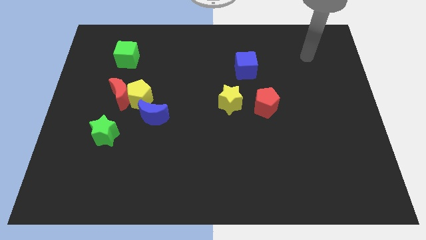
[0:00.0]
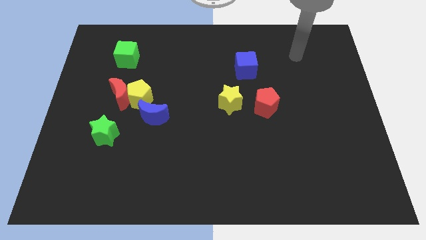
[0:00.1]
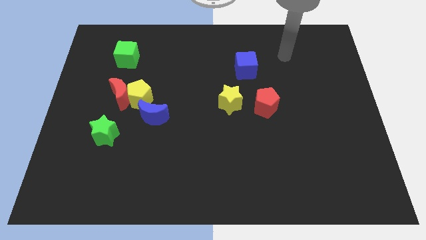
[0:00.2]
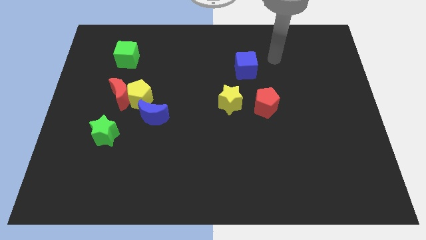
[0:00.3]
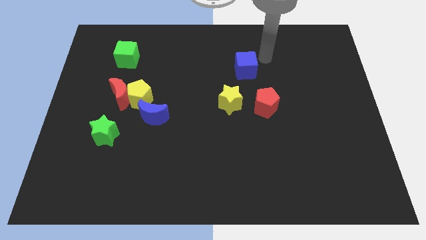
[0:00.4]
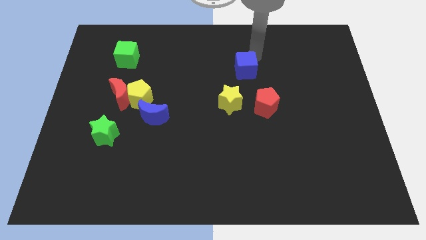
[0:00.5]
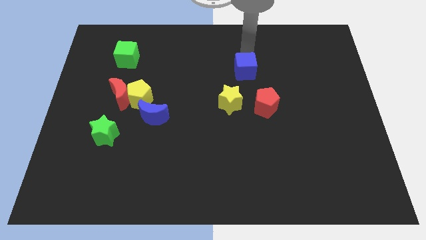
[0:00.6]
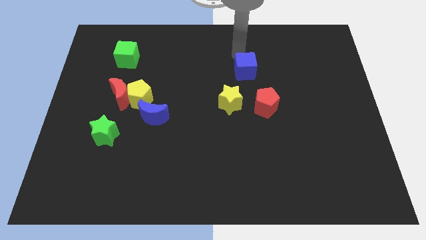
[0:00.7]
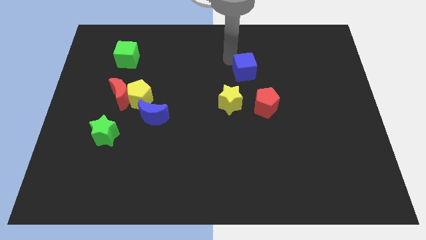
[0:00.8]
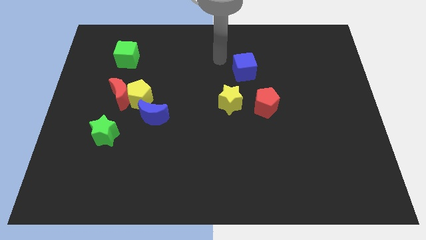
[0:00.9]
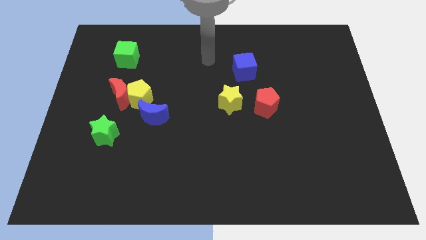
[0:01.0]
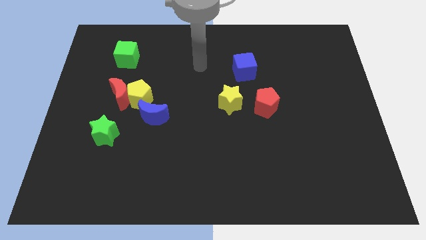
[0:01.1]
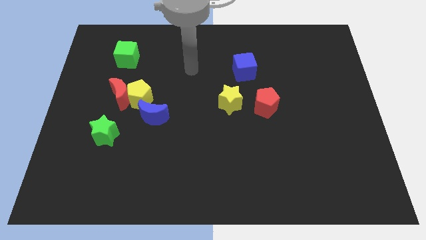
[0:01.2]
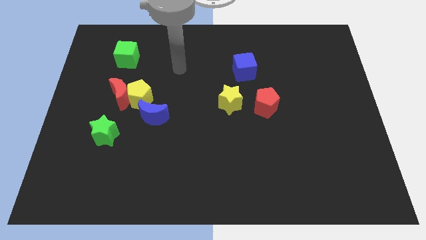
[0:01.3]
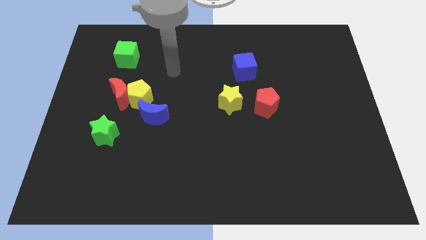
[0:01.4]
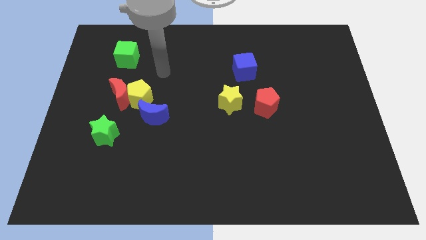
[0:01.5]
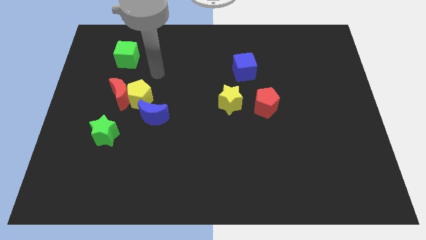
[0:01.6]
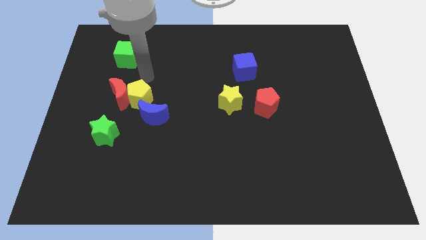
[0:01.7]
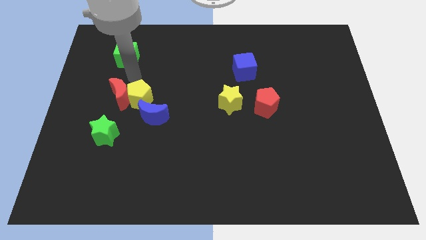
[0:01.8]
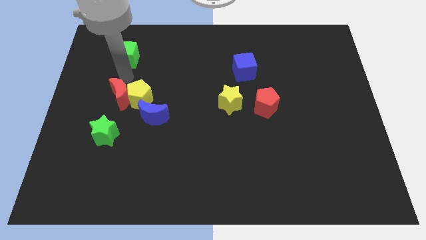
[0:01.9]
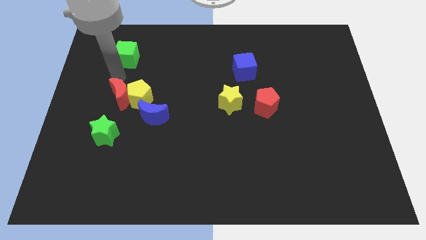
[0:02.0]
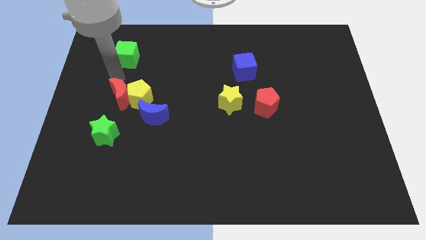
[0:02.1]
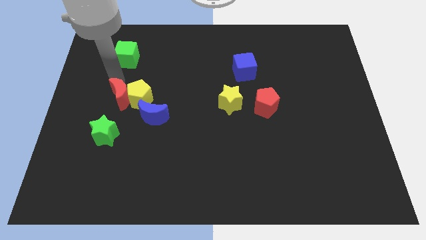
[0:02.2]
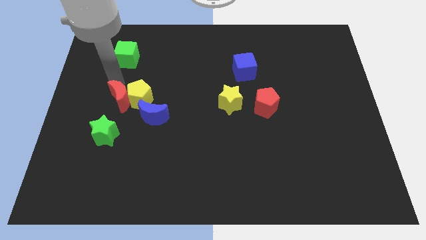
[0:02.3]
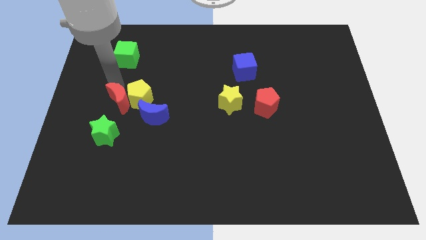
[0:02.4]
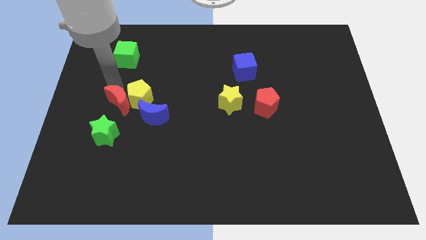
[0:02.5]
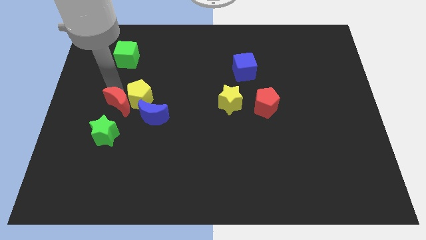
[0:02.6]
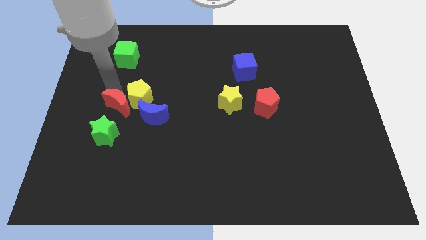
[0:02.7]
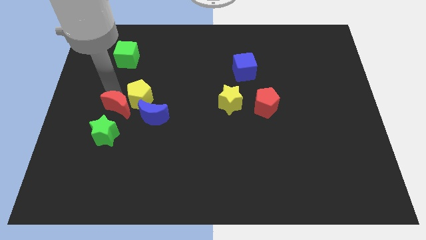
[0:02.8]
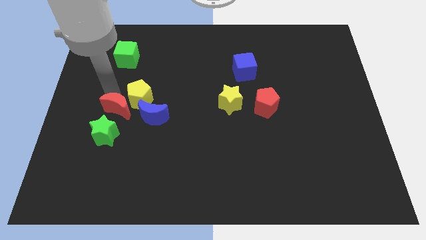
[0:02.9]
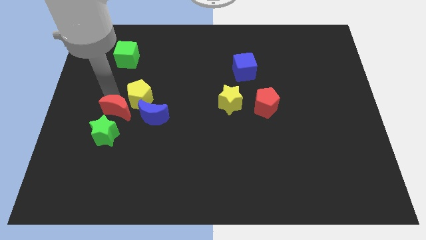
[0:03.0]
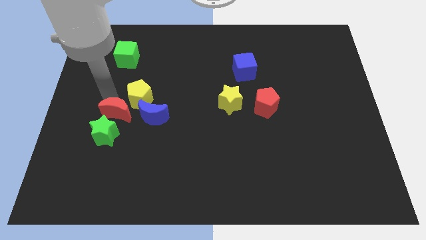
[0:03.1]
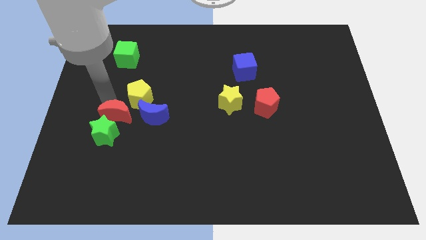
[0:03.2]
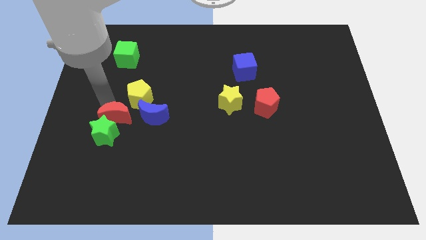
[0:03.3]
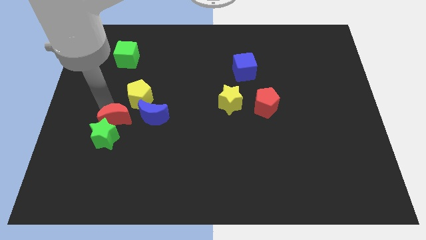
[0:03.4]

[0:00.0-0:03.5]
move the red moon down slightly

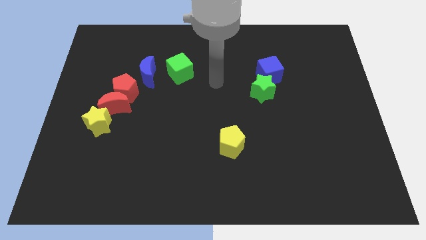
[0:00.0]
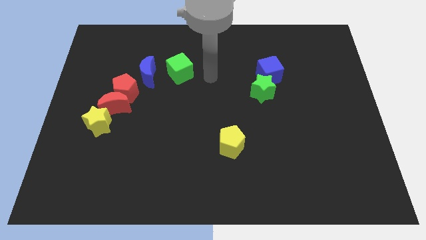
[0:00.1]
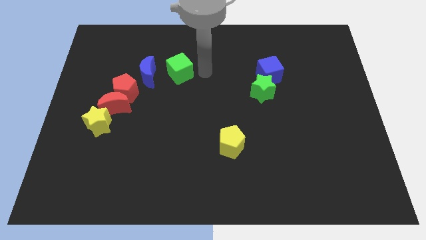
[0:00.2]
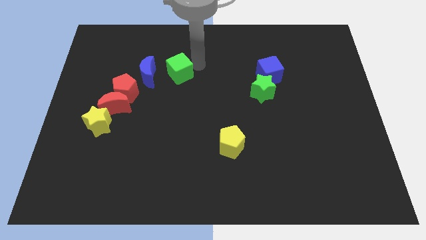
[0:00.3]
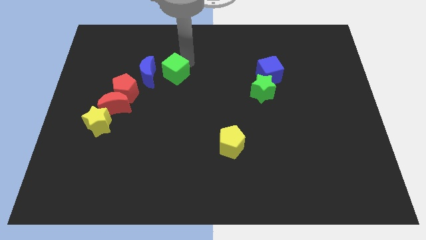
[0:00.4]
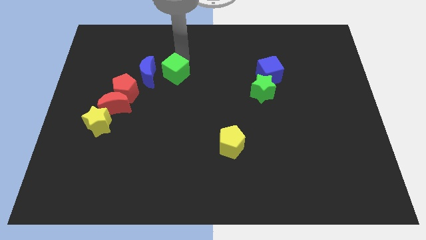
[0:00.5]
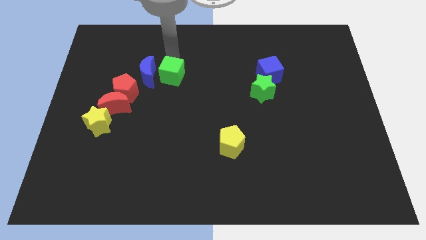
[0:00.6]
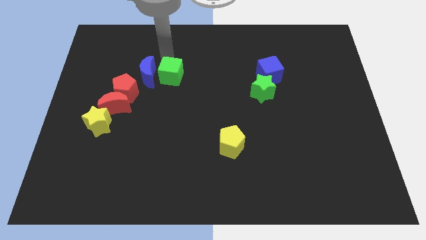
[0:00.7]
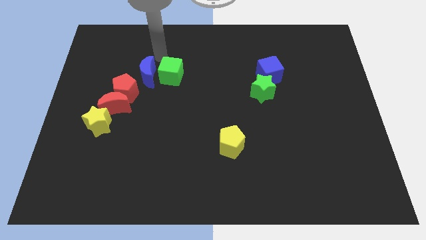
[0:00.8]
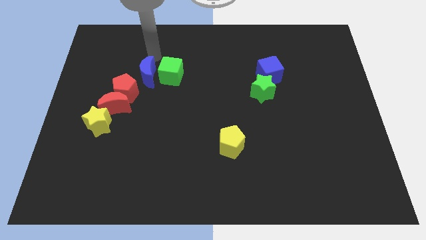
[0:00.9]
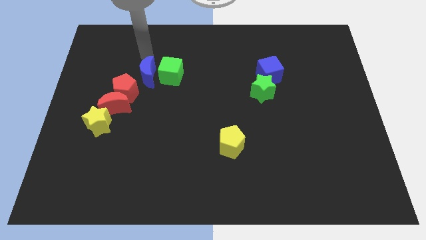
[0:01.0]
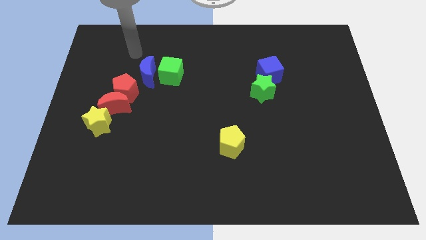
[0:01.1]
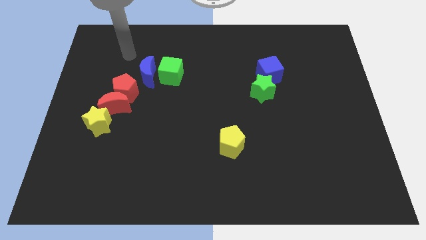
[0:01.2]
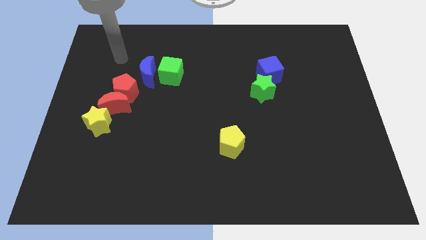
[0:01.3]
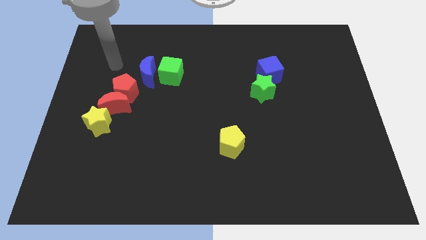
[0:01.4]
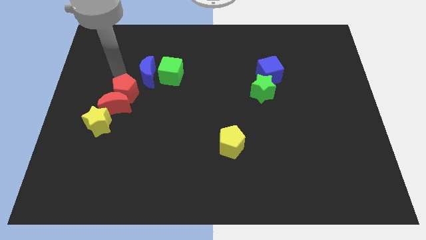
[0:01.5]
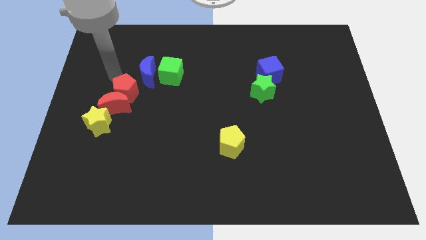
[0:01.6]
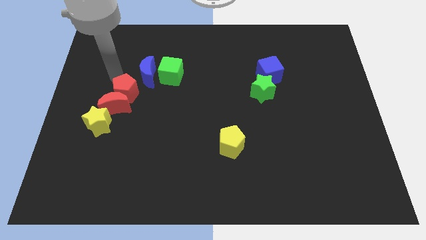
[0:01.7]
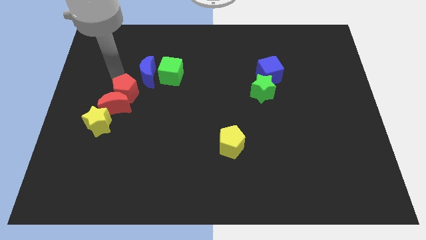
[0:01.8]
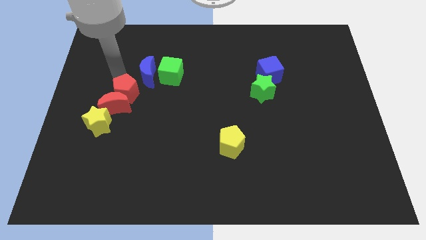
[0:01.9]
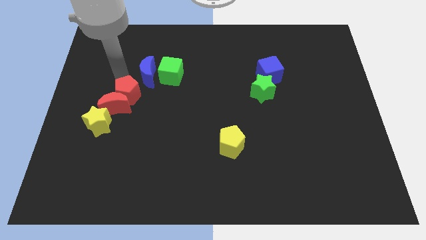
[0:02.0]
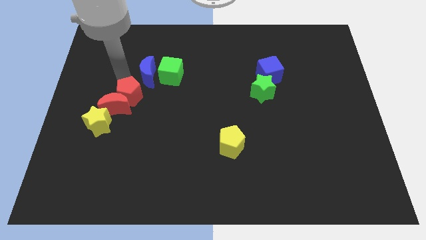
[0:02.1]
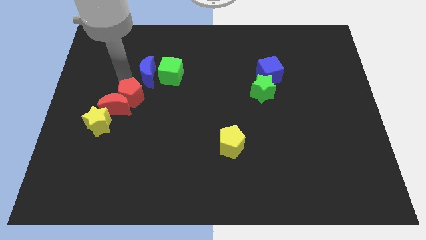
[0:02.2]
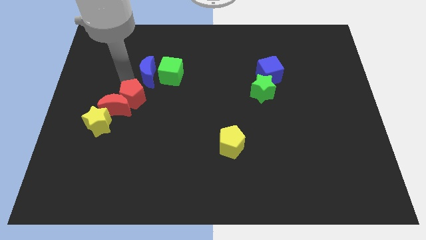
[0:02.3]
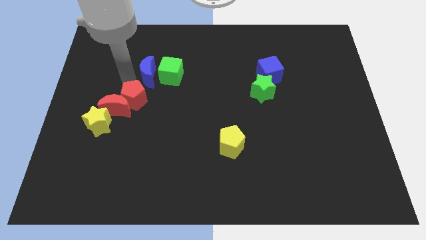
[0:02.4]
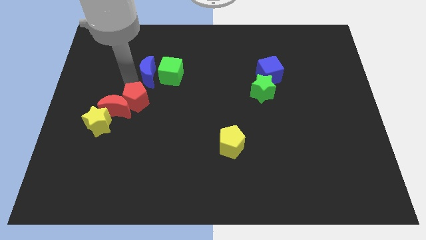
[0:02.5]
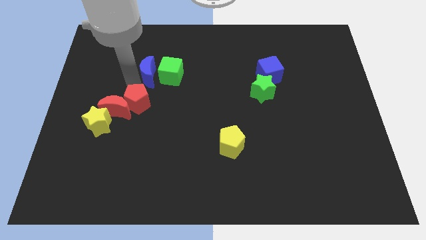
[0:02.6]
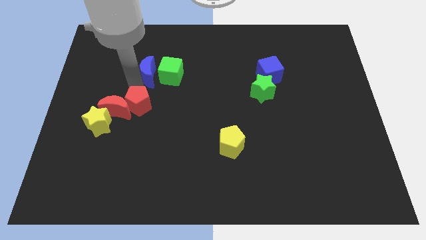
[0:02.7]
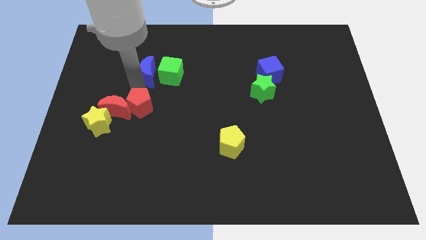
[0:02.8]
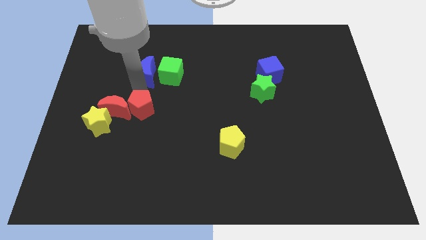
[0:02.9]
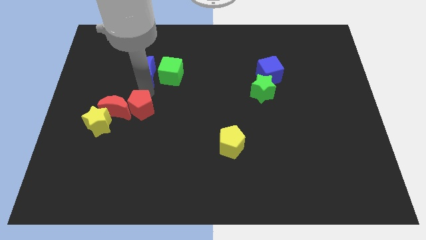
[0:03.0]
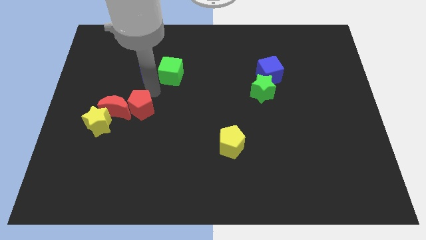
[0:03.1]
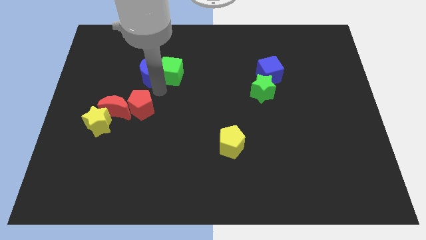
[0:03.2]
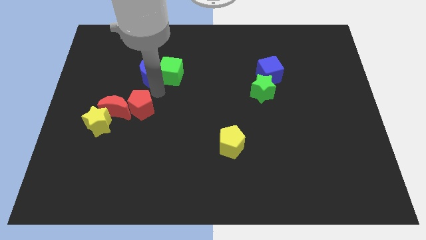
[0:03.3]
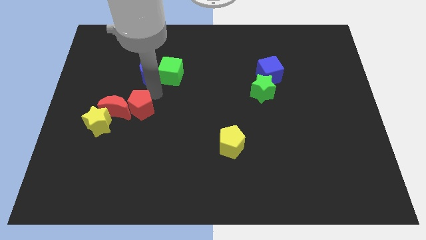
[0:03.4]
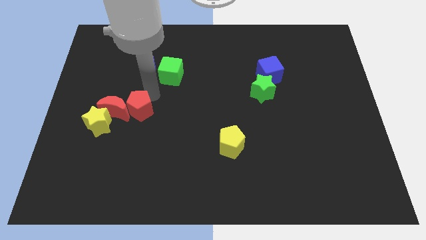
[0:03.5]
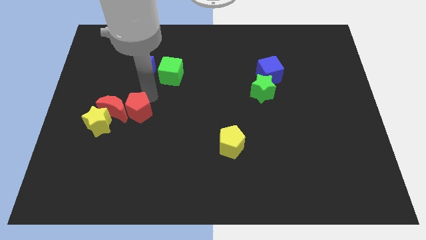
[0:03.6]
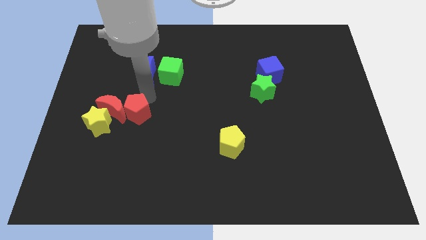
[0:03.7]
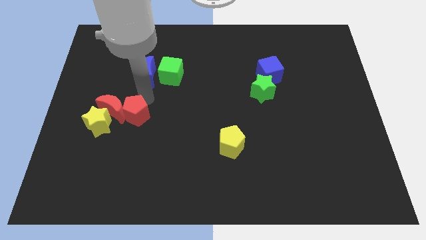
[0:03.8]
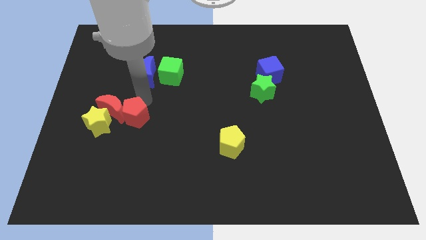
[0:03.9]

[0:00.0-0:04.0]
slide the red pentagon slightly downwards

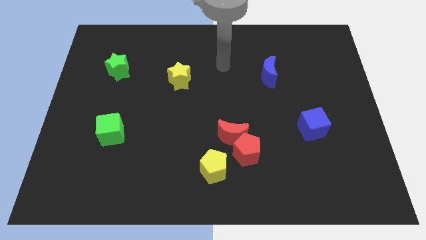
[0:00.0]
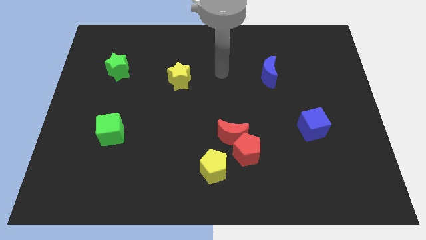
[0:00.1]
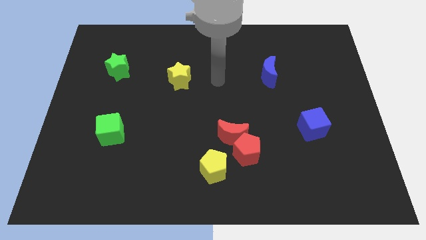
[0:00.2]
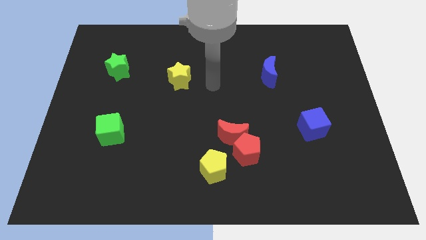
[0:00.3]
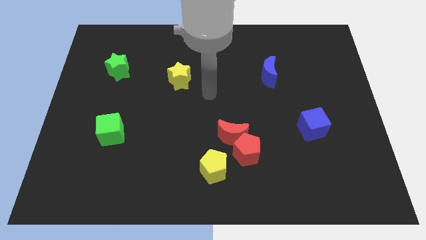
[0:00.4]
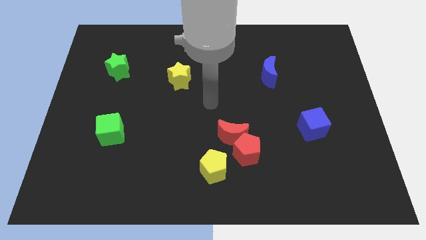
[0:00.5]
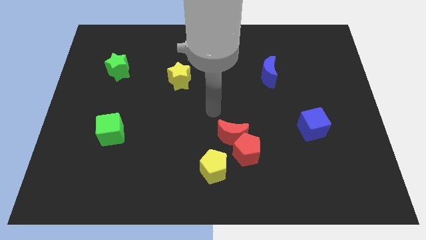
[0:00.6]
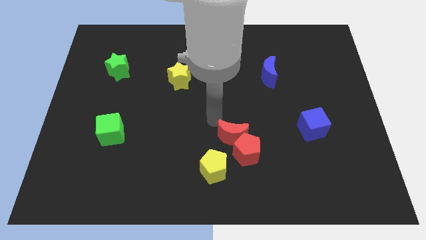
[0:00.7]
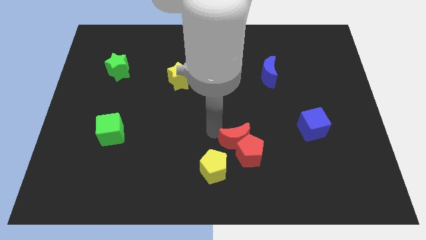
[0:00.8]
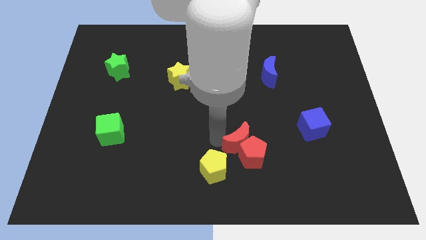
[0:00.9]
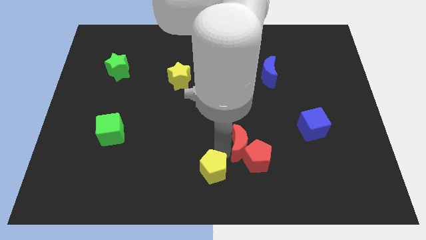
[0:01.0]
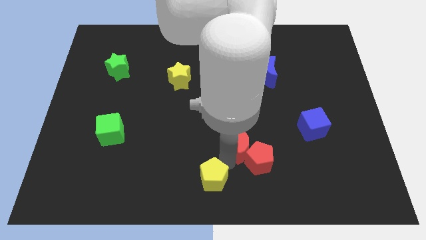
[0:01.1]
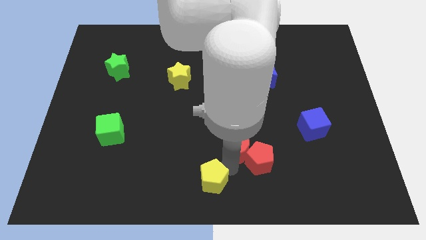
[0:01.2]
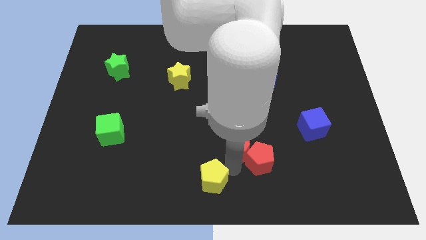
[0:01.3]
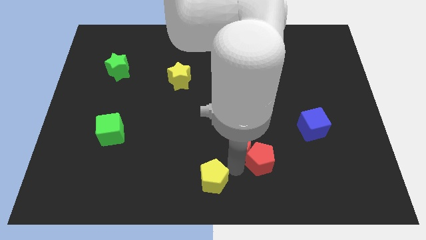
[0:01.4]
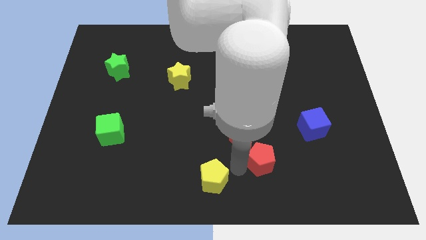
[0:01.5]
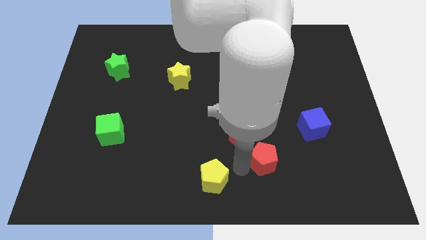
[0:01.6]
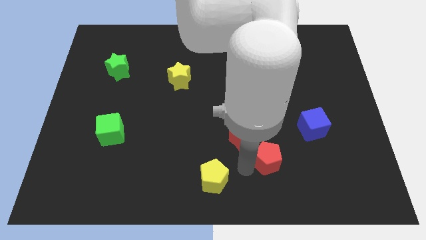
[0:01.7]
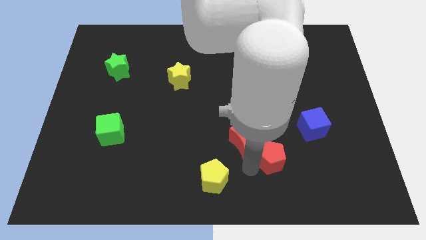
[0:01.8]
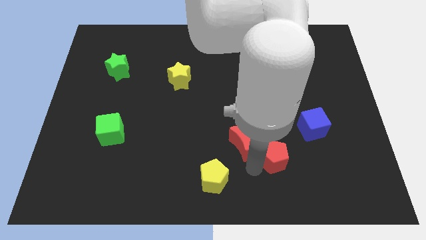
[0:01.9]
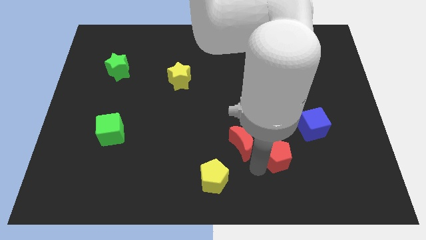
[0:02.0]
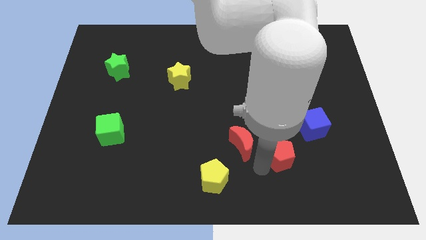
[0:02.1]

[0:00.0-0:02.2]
slide the red pentagon somewhat right
